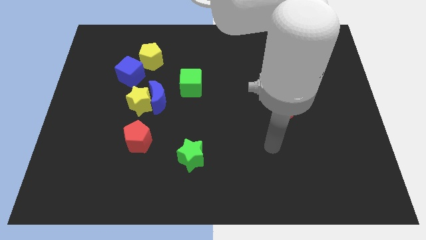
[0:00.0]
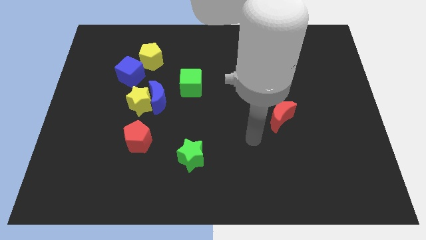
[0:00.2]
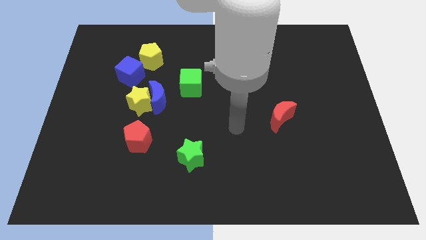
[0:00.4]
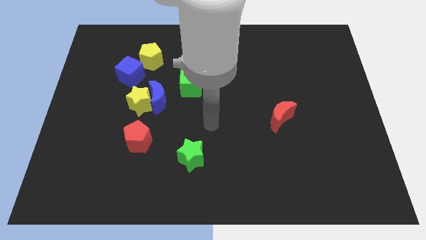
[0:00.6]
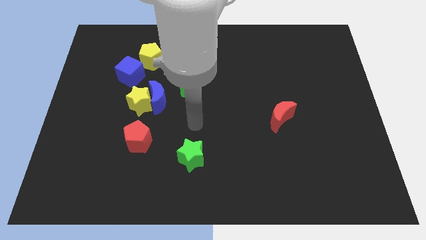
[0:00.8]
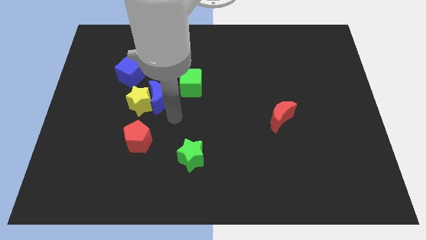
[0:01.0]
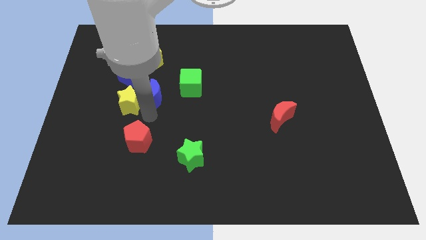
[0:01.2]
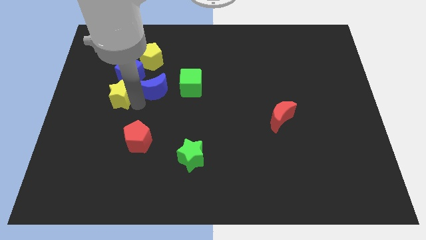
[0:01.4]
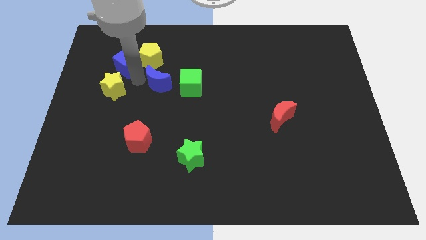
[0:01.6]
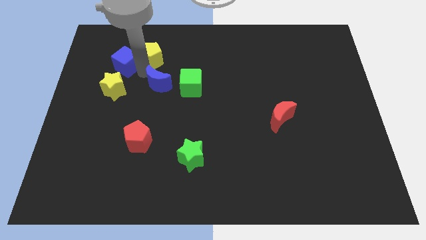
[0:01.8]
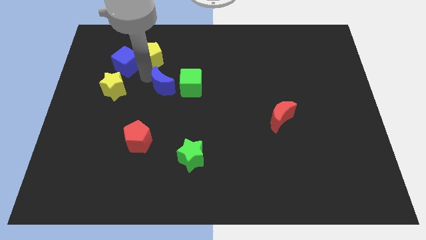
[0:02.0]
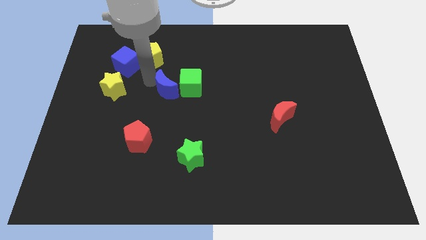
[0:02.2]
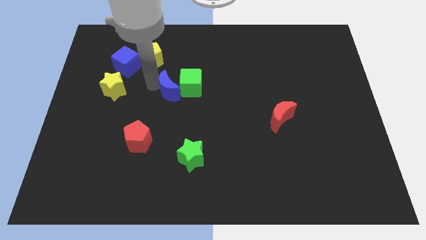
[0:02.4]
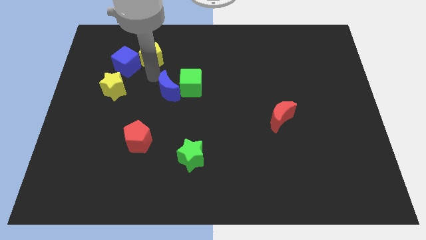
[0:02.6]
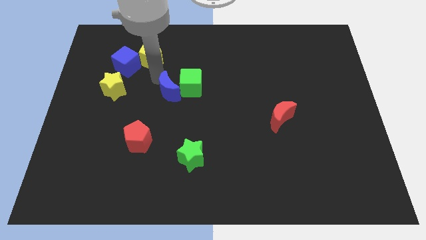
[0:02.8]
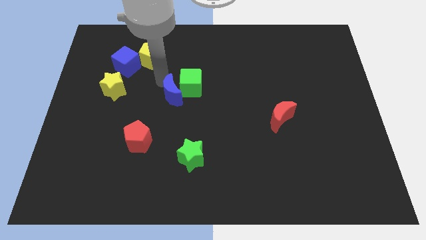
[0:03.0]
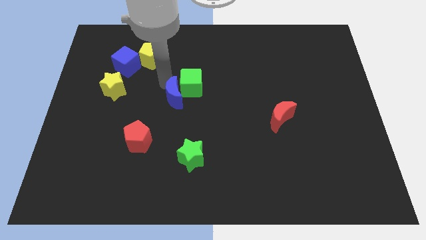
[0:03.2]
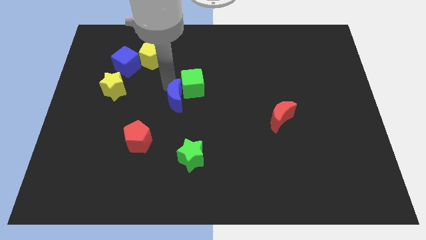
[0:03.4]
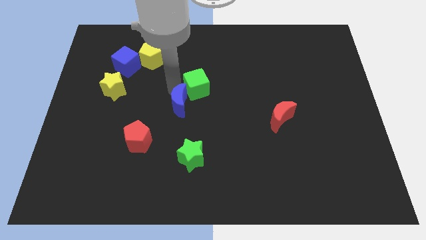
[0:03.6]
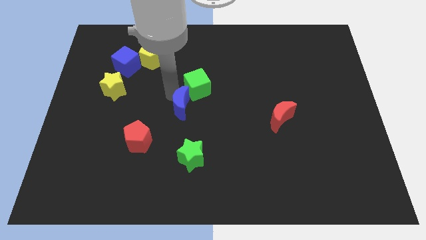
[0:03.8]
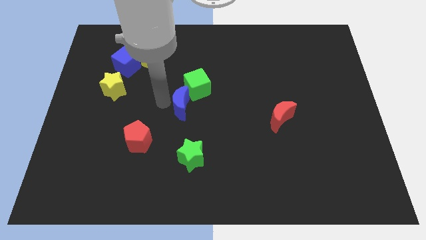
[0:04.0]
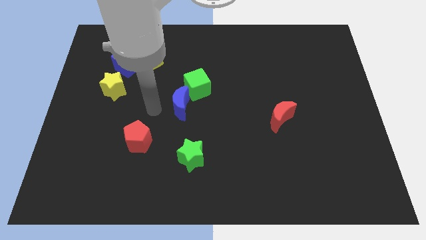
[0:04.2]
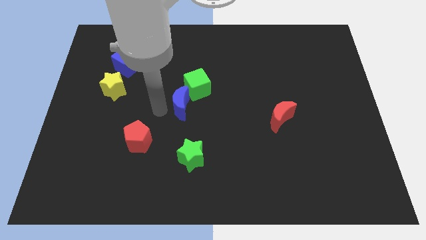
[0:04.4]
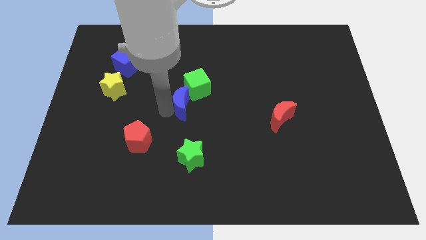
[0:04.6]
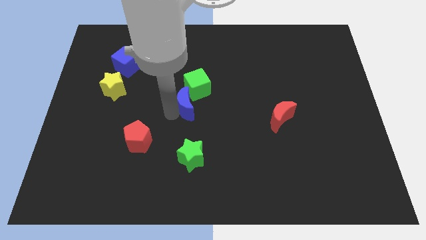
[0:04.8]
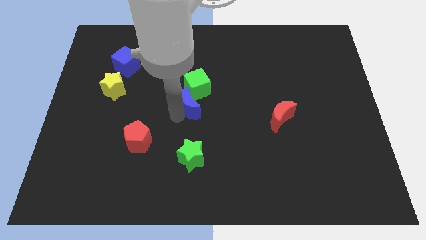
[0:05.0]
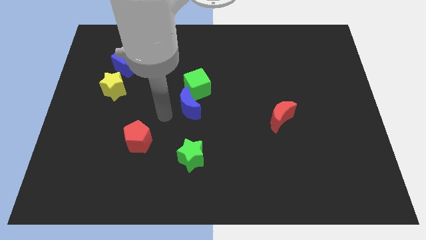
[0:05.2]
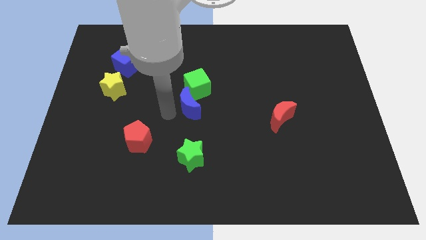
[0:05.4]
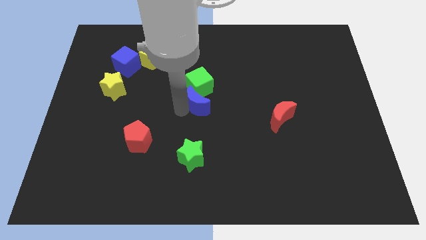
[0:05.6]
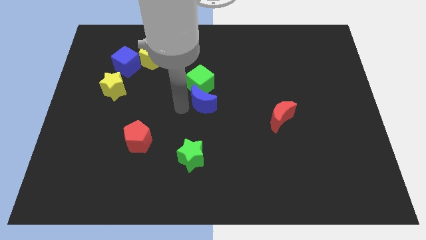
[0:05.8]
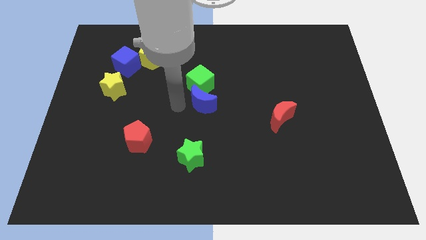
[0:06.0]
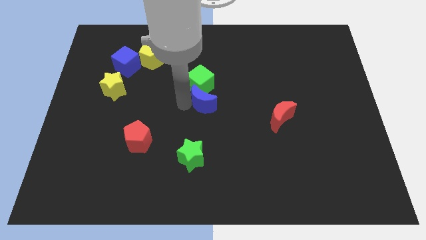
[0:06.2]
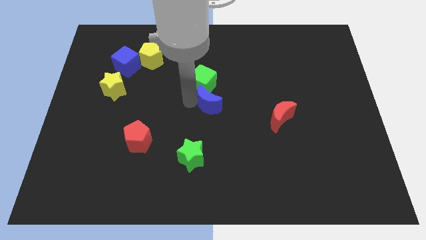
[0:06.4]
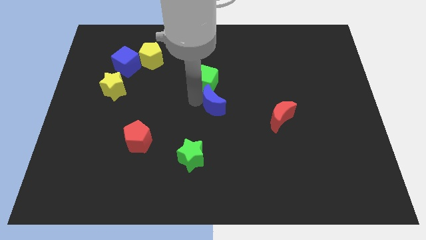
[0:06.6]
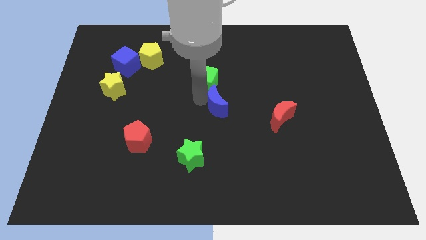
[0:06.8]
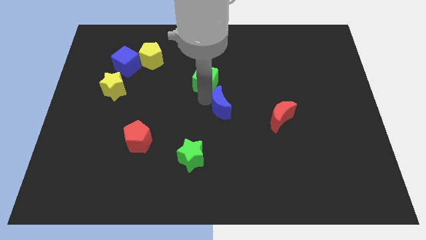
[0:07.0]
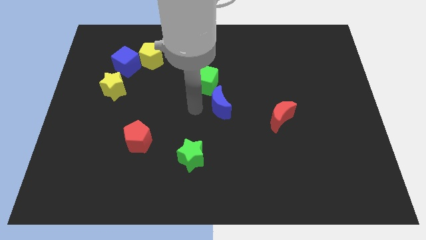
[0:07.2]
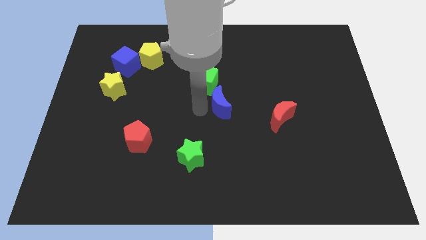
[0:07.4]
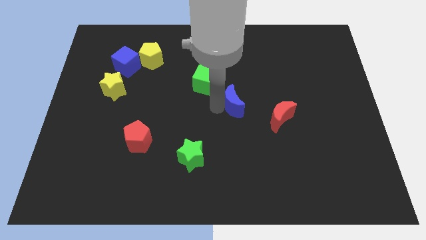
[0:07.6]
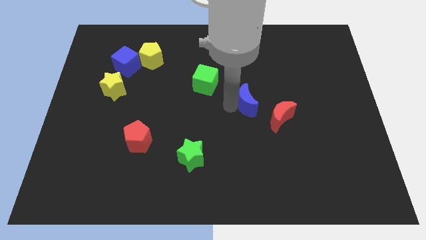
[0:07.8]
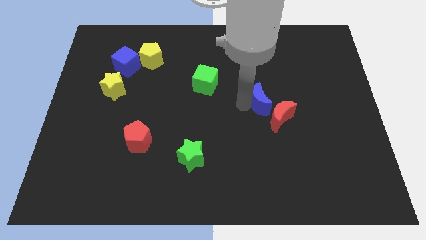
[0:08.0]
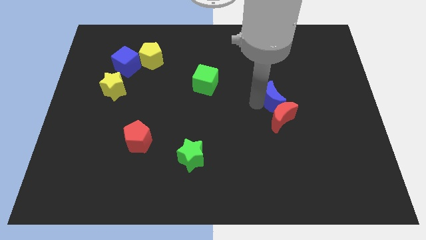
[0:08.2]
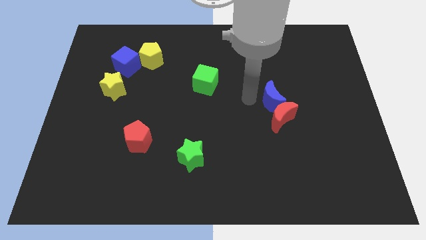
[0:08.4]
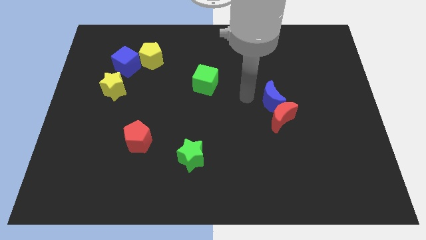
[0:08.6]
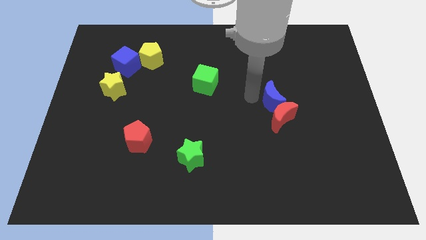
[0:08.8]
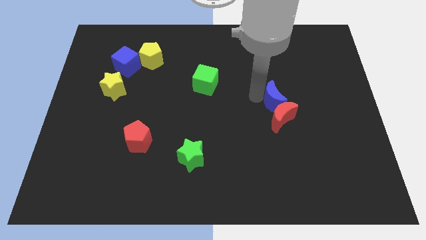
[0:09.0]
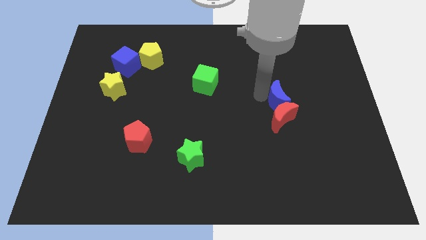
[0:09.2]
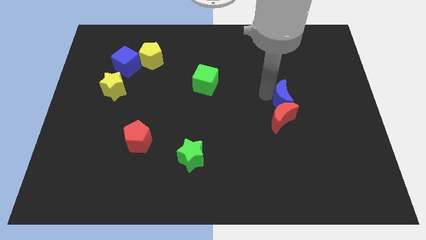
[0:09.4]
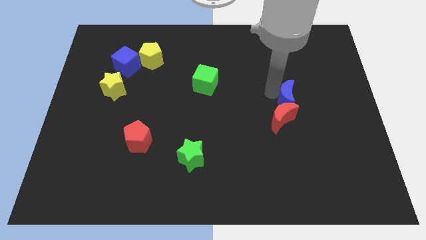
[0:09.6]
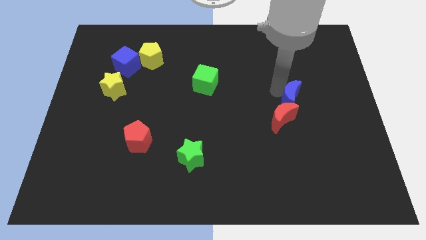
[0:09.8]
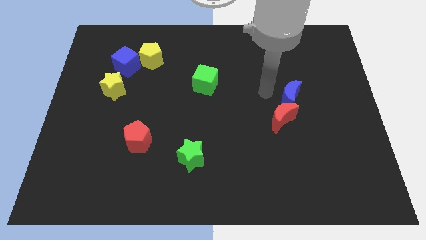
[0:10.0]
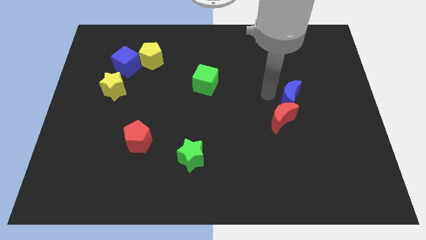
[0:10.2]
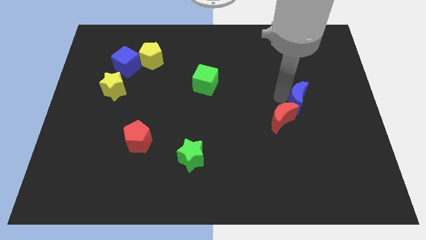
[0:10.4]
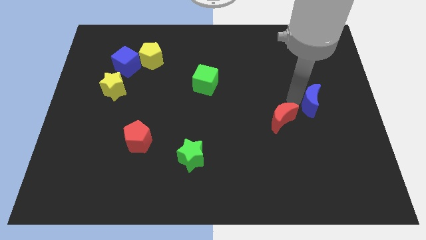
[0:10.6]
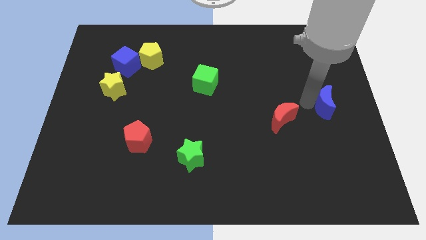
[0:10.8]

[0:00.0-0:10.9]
put the blue moon to the right side of the board
